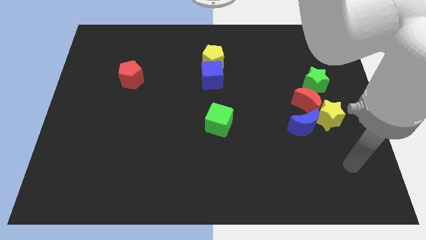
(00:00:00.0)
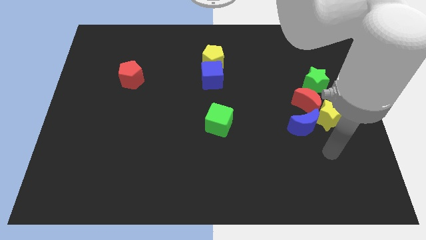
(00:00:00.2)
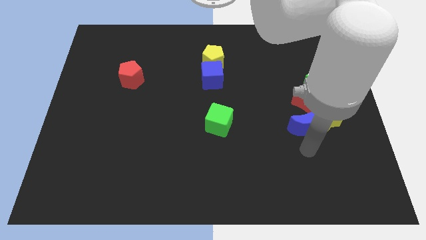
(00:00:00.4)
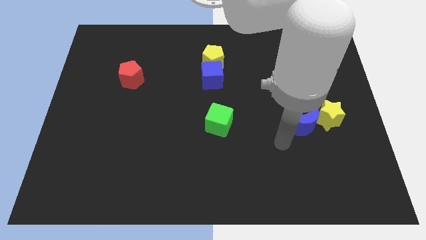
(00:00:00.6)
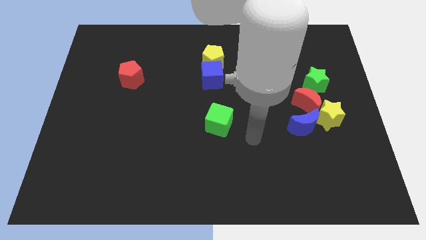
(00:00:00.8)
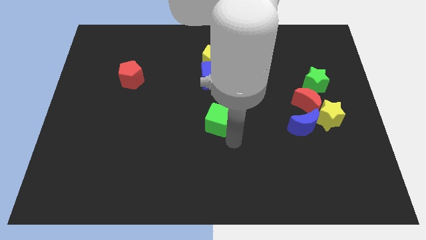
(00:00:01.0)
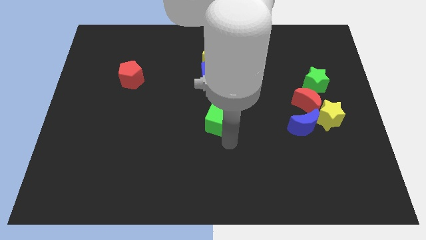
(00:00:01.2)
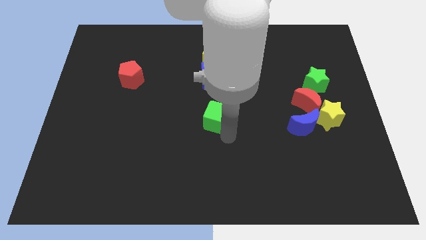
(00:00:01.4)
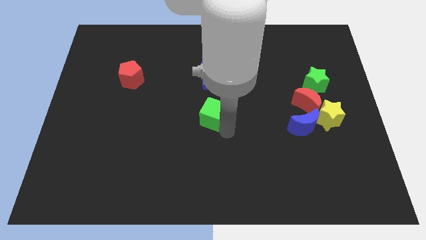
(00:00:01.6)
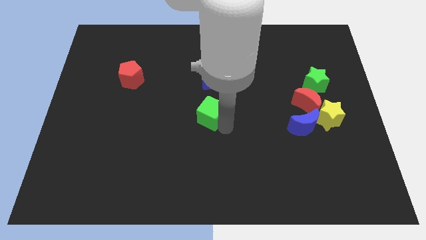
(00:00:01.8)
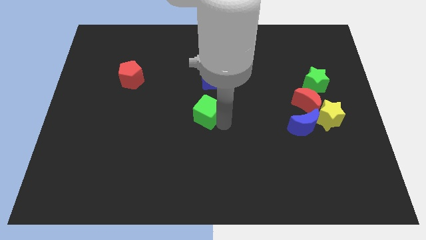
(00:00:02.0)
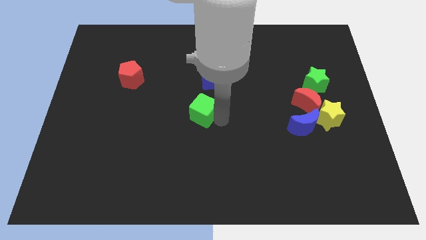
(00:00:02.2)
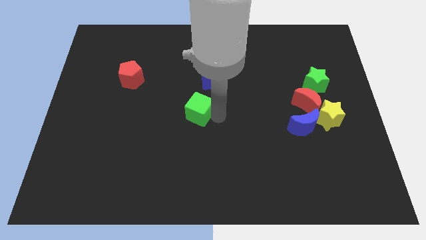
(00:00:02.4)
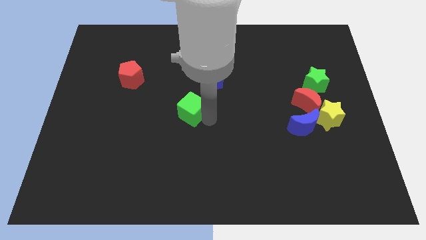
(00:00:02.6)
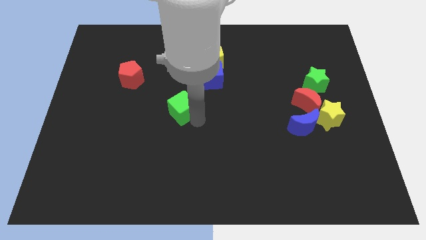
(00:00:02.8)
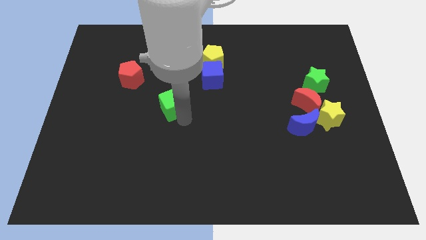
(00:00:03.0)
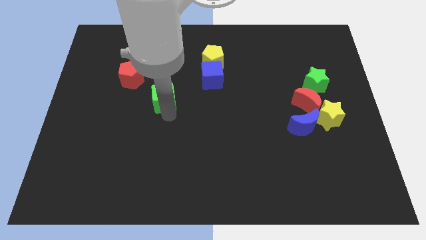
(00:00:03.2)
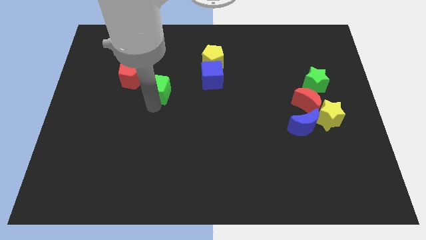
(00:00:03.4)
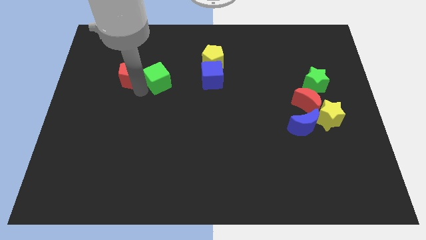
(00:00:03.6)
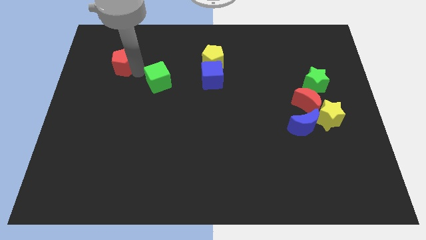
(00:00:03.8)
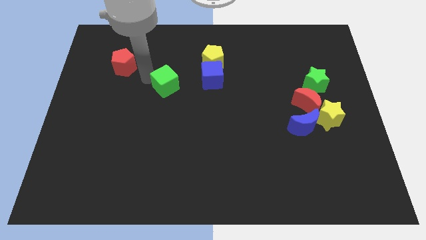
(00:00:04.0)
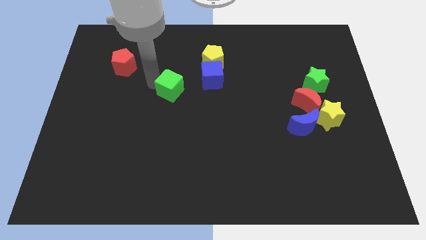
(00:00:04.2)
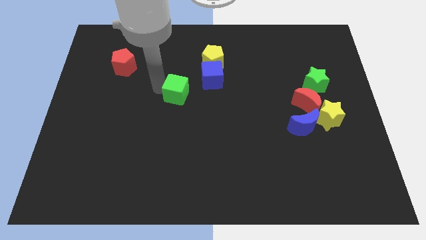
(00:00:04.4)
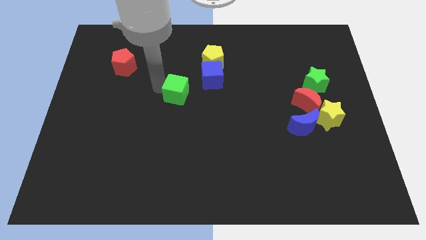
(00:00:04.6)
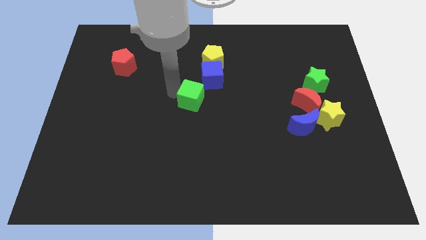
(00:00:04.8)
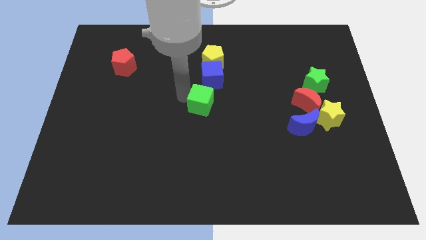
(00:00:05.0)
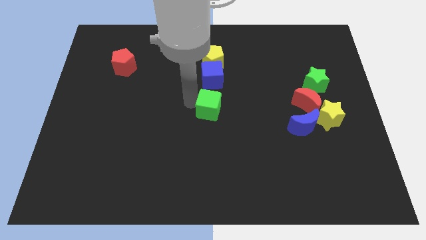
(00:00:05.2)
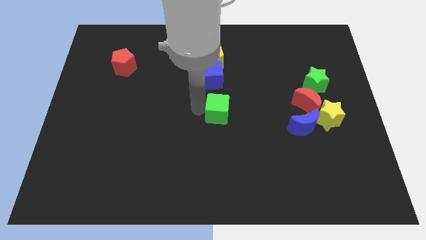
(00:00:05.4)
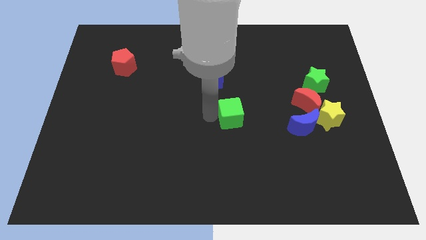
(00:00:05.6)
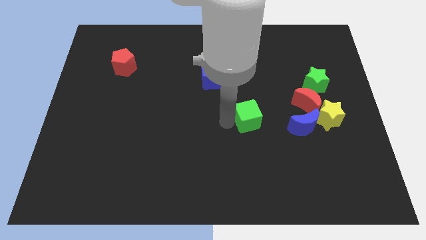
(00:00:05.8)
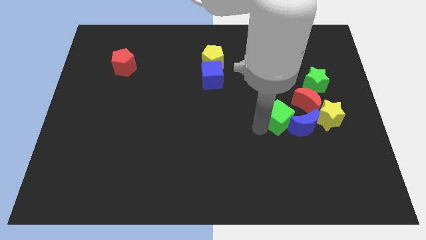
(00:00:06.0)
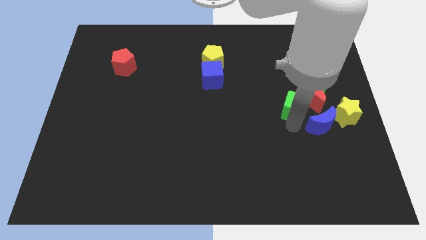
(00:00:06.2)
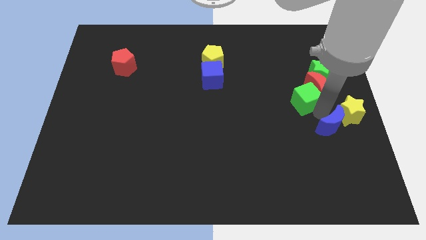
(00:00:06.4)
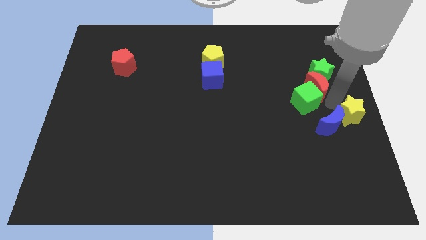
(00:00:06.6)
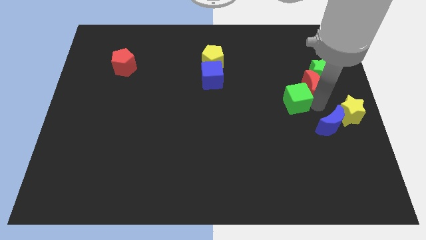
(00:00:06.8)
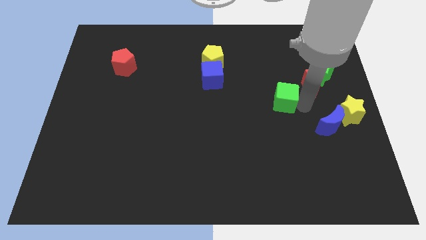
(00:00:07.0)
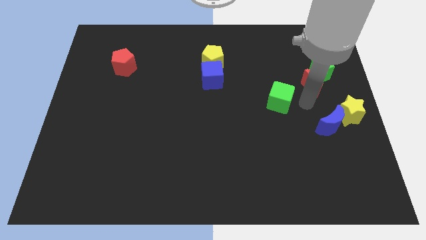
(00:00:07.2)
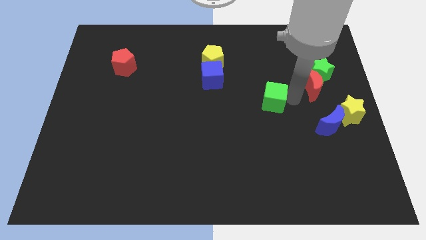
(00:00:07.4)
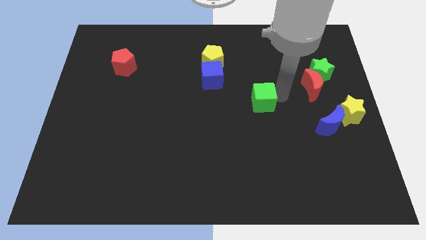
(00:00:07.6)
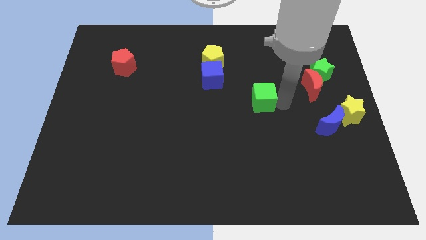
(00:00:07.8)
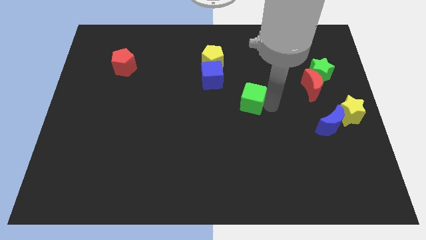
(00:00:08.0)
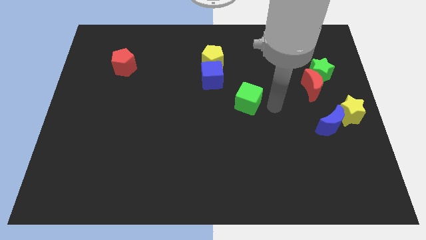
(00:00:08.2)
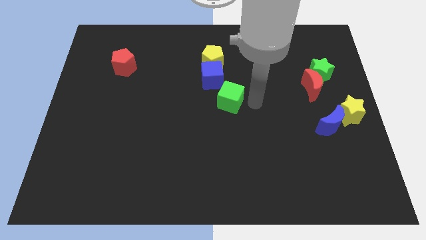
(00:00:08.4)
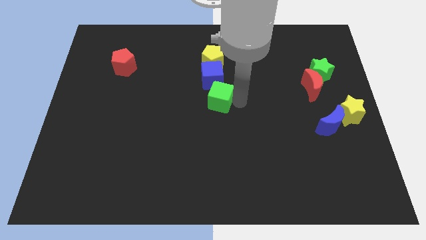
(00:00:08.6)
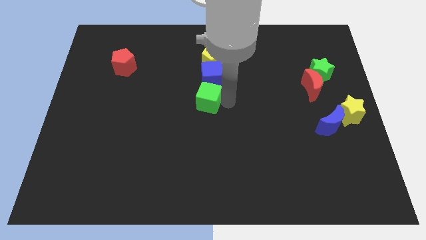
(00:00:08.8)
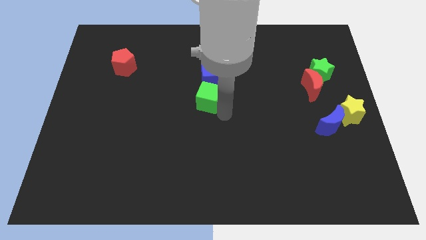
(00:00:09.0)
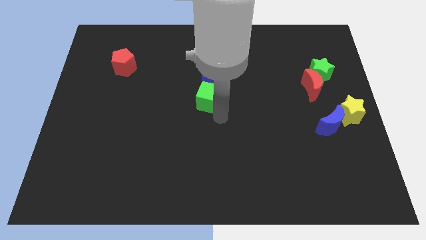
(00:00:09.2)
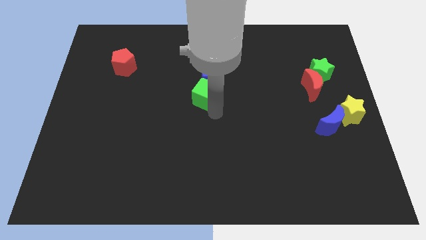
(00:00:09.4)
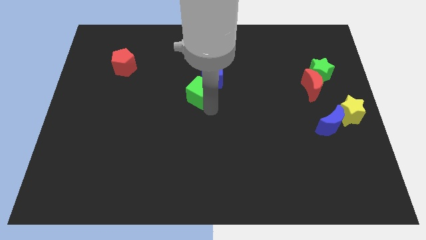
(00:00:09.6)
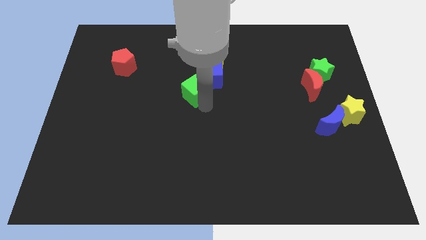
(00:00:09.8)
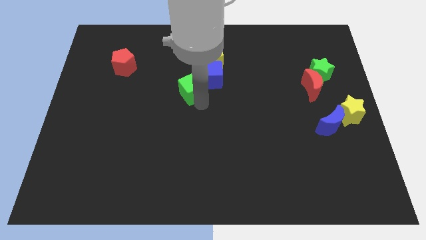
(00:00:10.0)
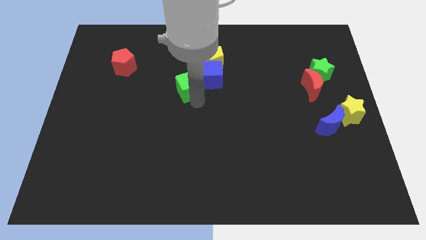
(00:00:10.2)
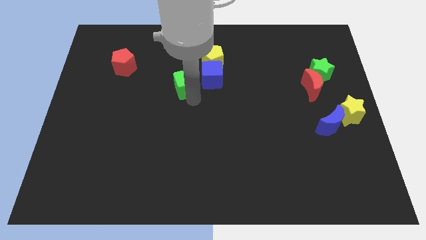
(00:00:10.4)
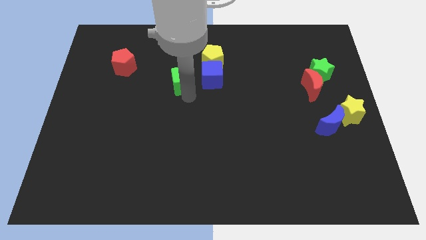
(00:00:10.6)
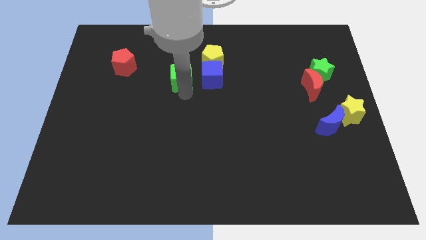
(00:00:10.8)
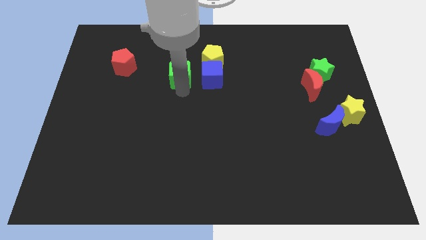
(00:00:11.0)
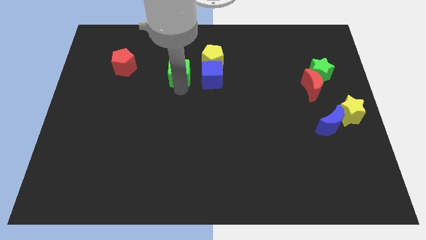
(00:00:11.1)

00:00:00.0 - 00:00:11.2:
put the green cube to the left of the yellow pentagon

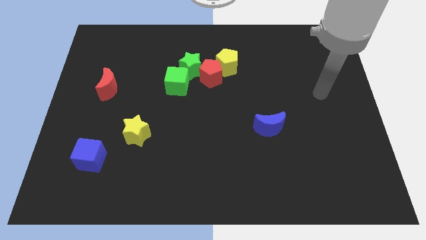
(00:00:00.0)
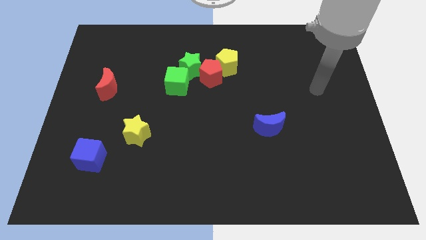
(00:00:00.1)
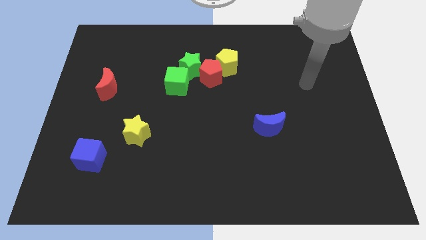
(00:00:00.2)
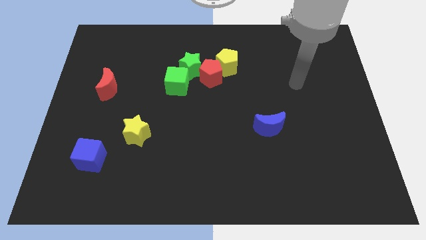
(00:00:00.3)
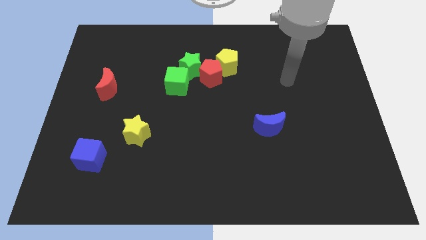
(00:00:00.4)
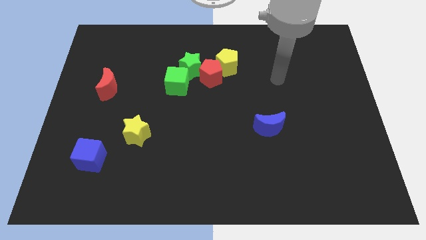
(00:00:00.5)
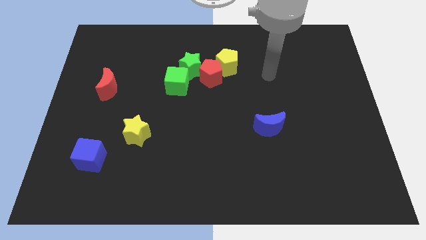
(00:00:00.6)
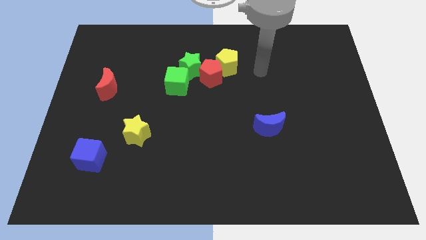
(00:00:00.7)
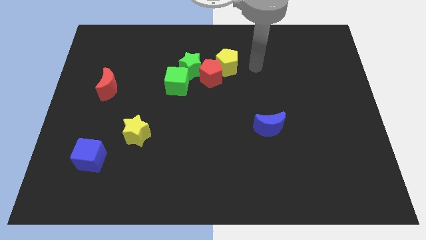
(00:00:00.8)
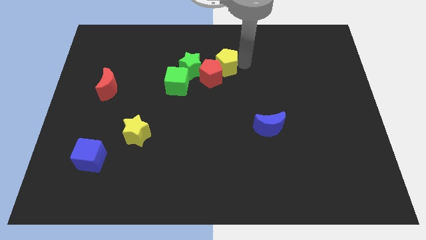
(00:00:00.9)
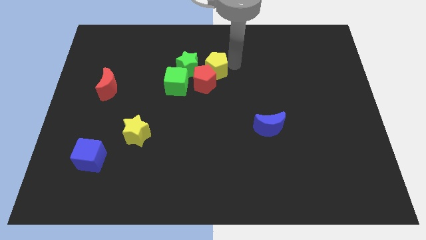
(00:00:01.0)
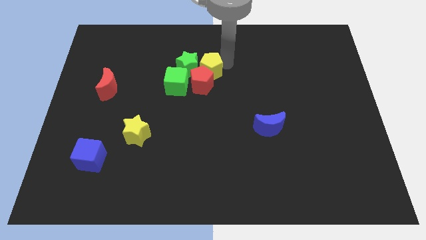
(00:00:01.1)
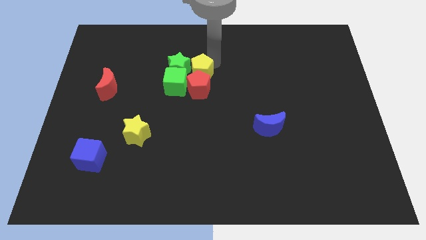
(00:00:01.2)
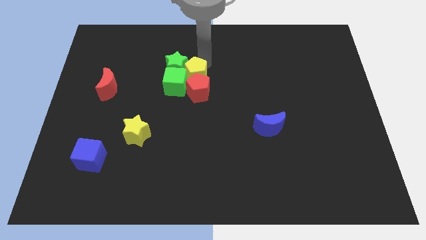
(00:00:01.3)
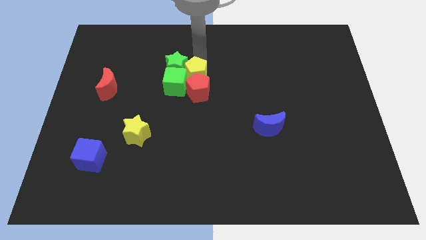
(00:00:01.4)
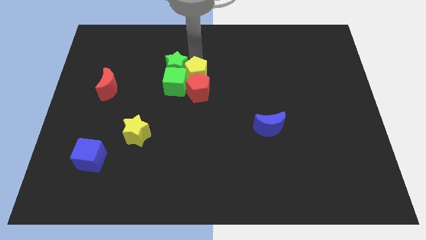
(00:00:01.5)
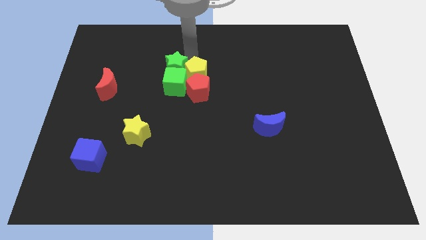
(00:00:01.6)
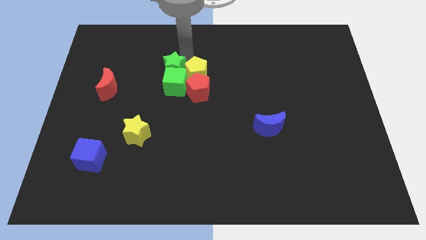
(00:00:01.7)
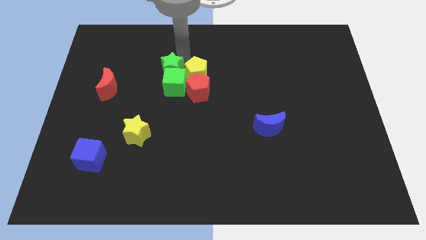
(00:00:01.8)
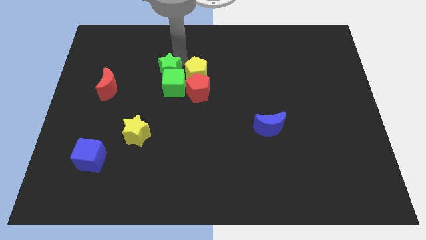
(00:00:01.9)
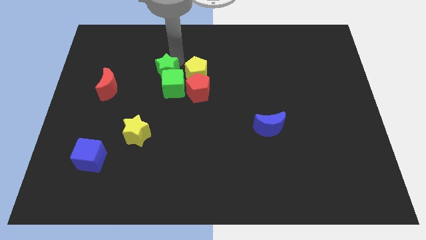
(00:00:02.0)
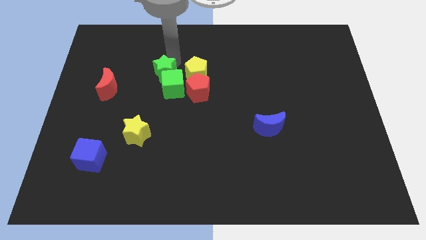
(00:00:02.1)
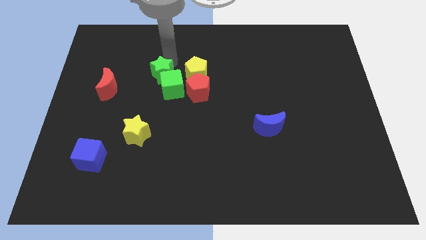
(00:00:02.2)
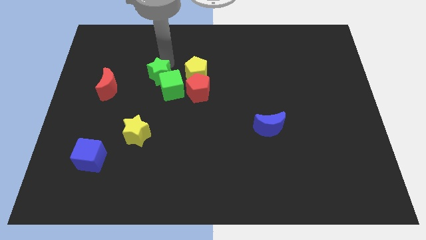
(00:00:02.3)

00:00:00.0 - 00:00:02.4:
slide the green star just left of the green cube
